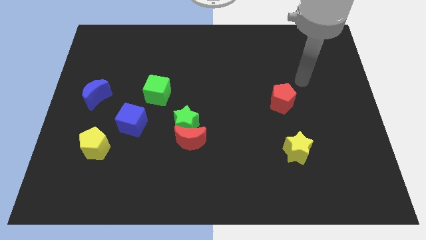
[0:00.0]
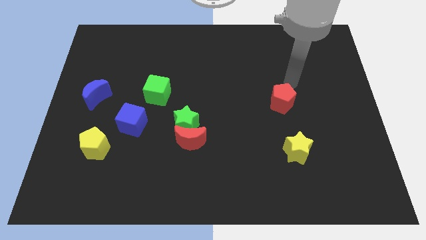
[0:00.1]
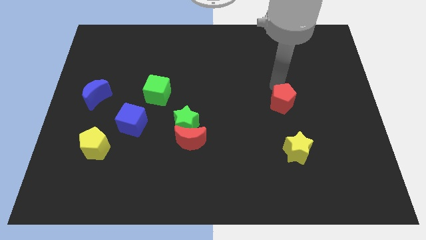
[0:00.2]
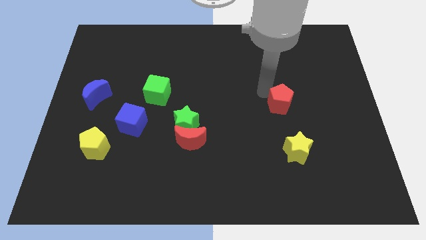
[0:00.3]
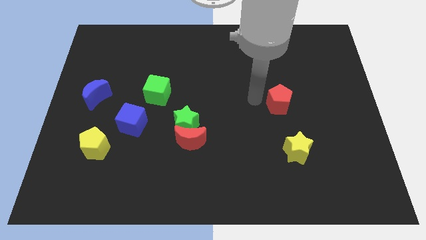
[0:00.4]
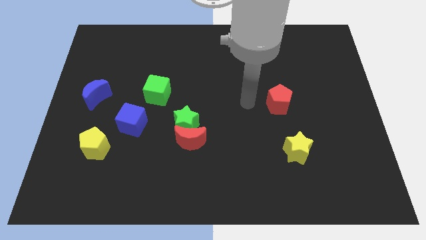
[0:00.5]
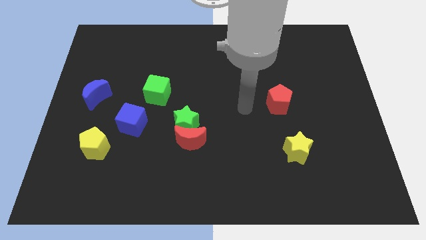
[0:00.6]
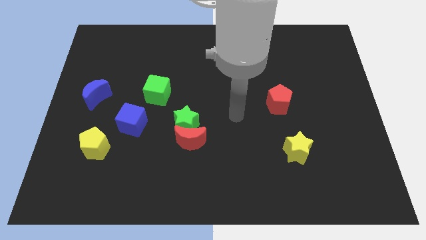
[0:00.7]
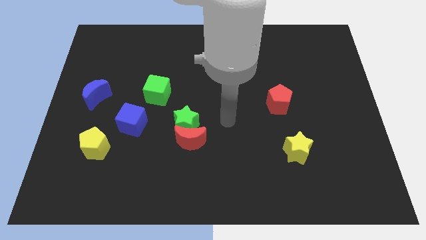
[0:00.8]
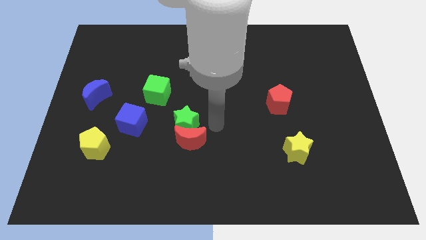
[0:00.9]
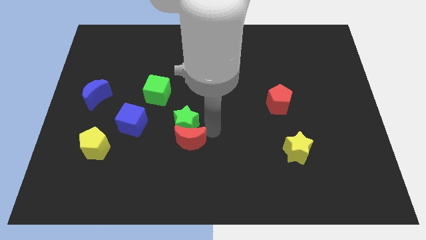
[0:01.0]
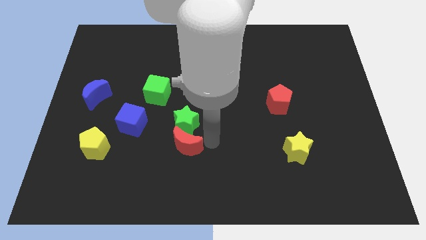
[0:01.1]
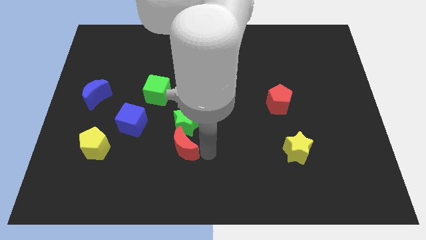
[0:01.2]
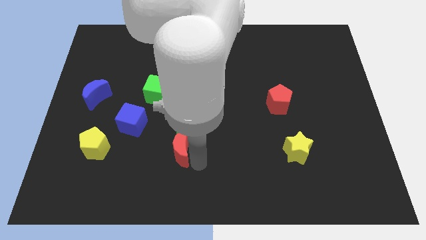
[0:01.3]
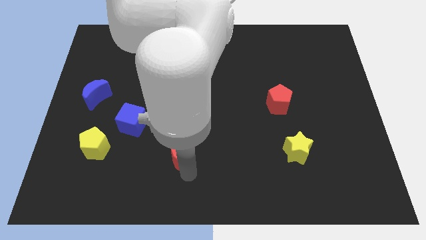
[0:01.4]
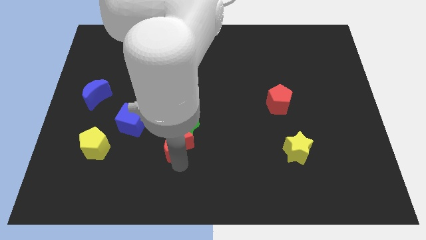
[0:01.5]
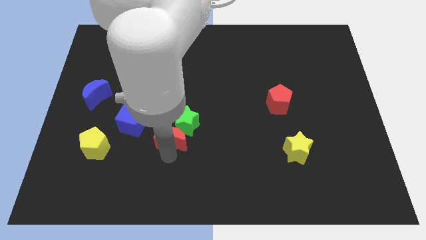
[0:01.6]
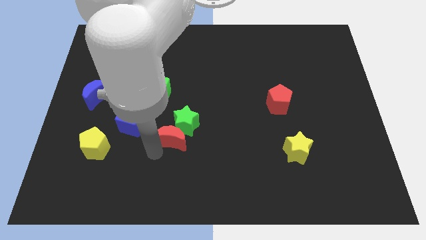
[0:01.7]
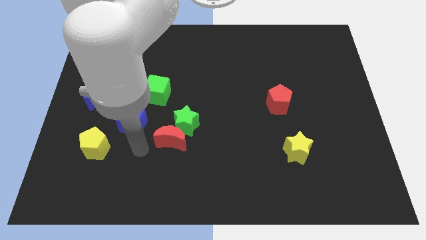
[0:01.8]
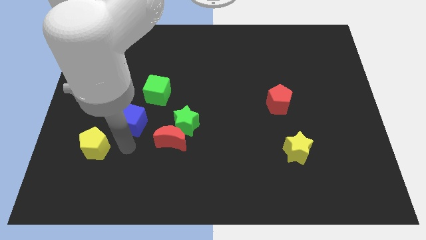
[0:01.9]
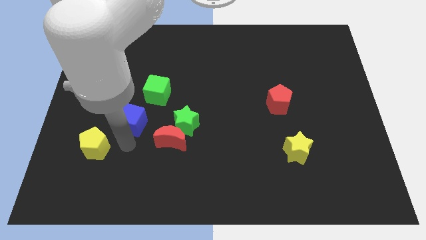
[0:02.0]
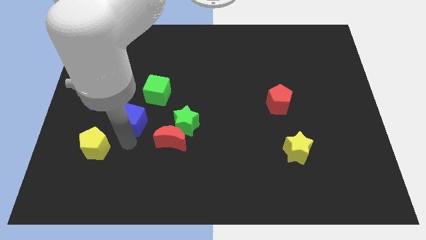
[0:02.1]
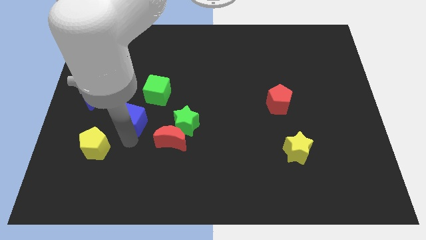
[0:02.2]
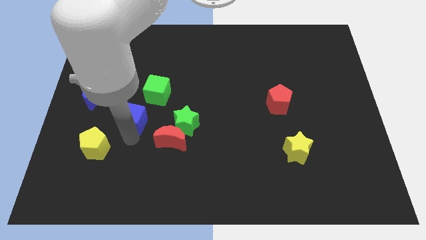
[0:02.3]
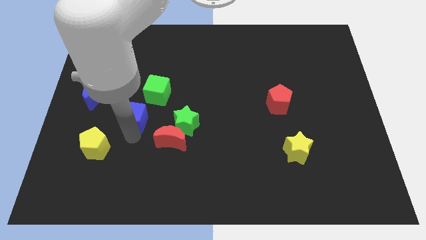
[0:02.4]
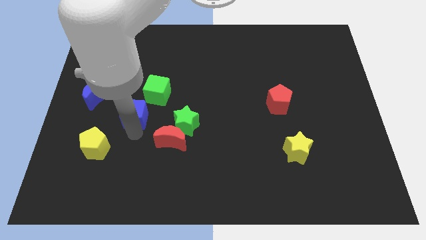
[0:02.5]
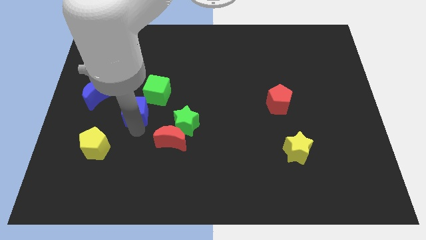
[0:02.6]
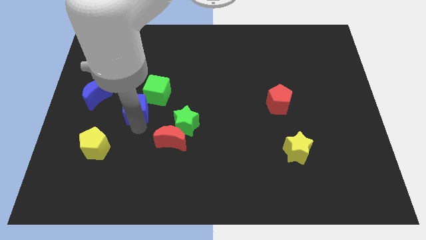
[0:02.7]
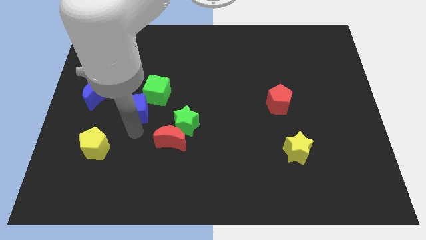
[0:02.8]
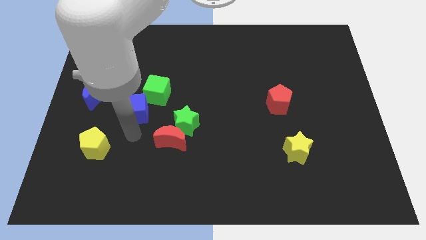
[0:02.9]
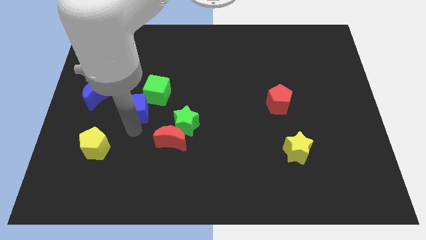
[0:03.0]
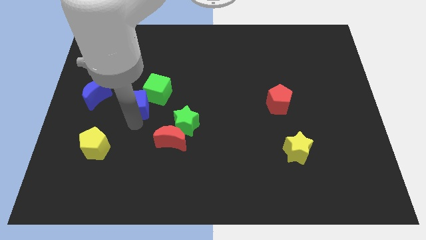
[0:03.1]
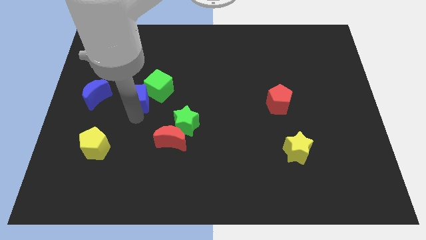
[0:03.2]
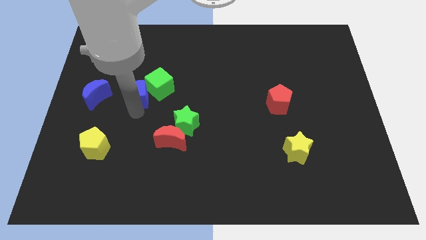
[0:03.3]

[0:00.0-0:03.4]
slide the blue cube up a little bit

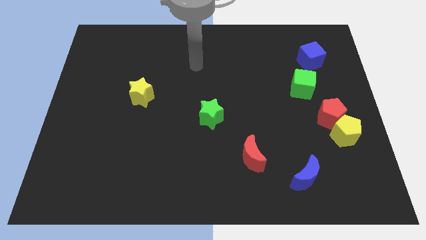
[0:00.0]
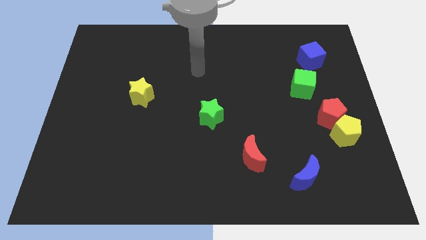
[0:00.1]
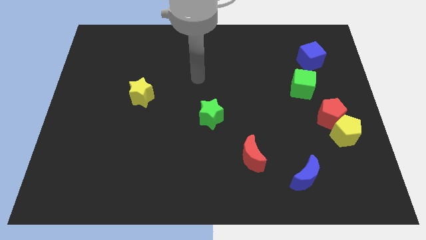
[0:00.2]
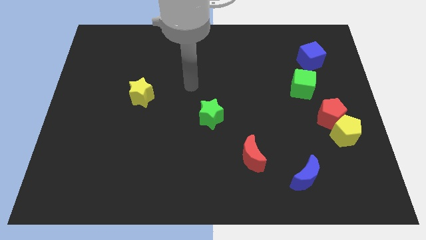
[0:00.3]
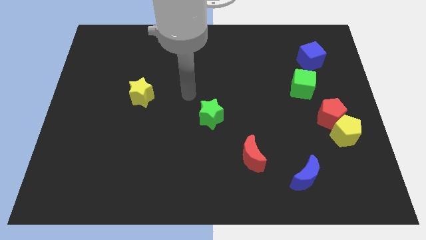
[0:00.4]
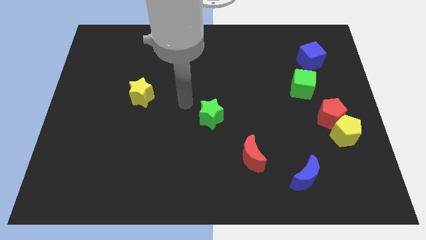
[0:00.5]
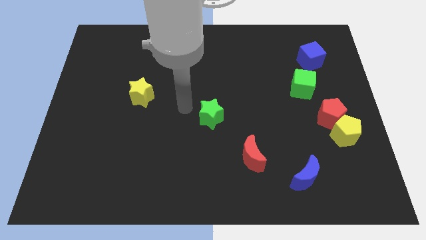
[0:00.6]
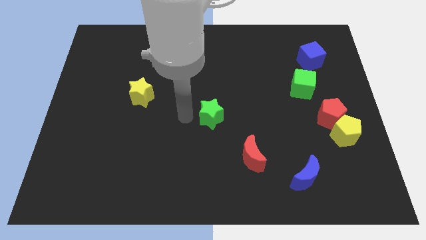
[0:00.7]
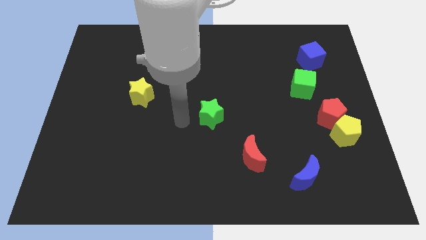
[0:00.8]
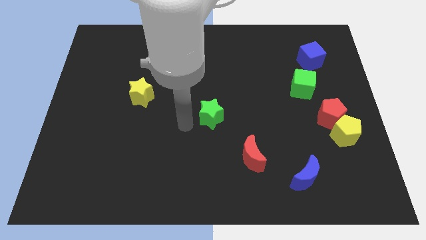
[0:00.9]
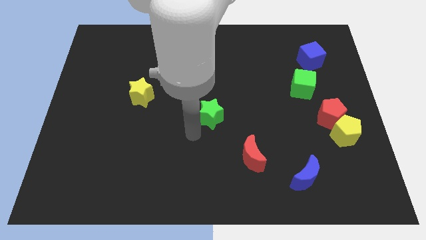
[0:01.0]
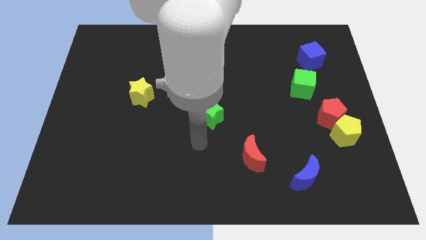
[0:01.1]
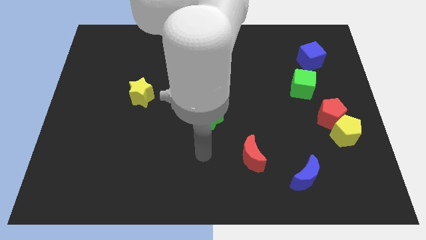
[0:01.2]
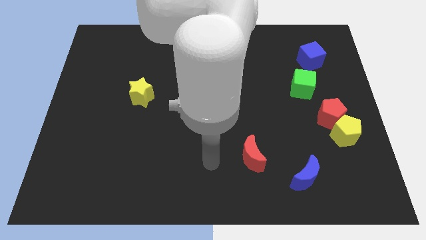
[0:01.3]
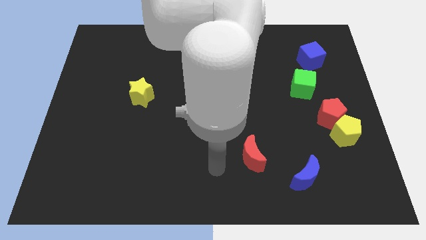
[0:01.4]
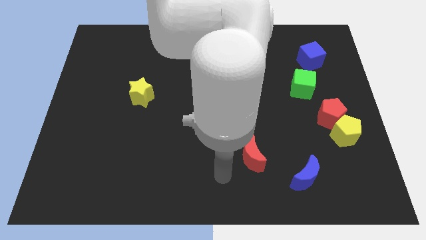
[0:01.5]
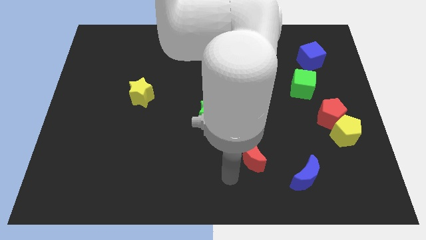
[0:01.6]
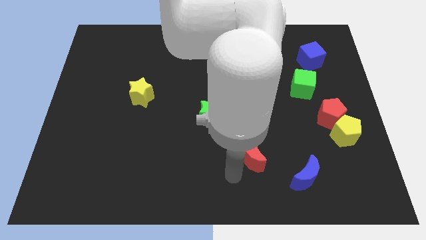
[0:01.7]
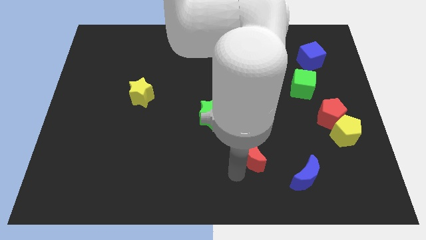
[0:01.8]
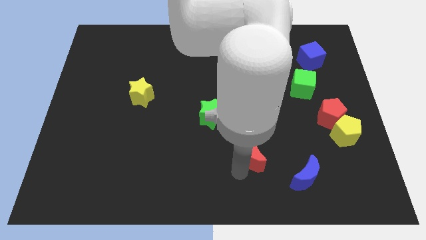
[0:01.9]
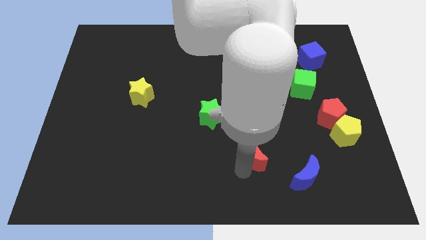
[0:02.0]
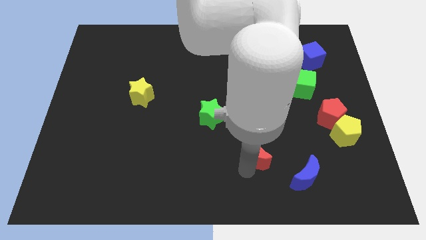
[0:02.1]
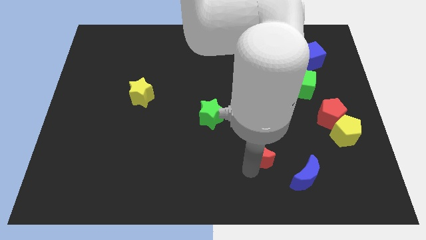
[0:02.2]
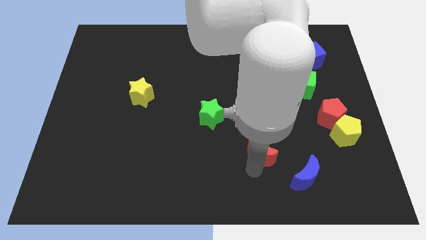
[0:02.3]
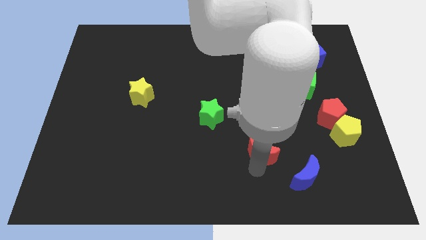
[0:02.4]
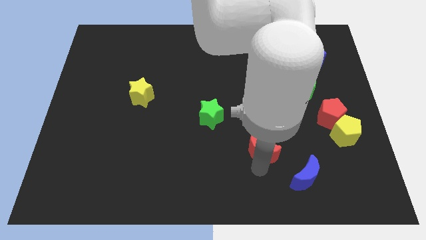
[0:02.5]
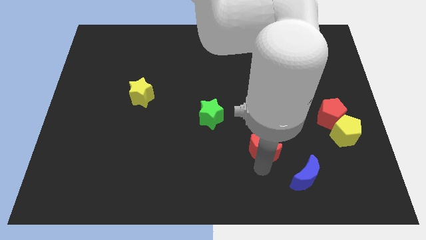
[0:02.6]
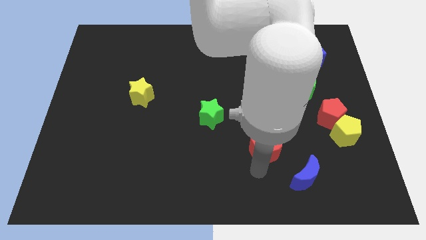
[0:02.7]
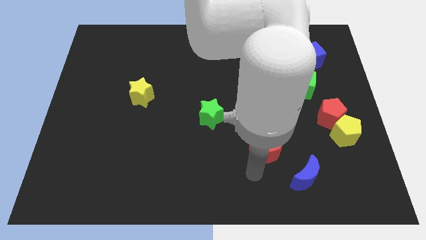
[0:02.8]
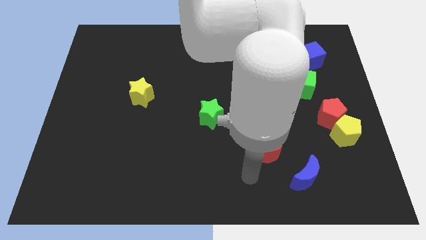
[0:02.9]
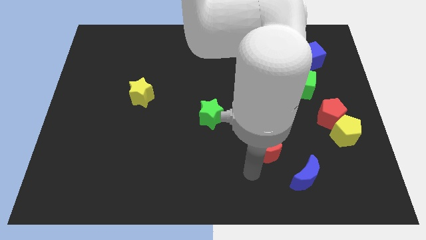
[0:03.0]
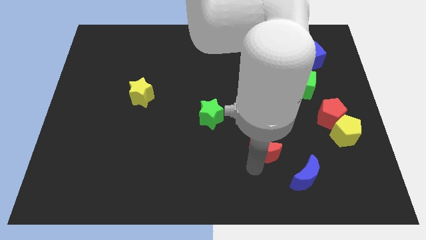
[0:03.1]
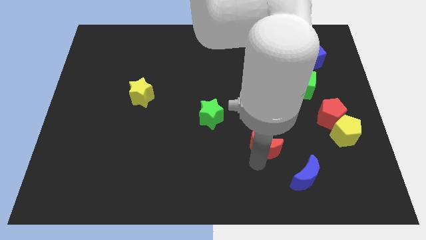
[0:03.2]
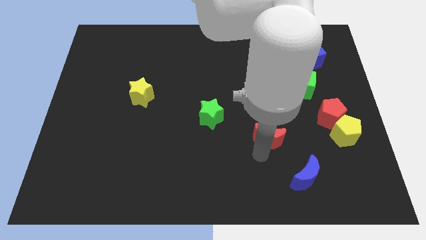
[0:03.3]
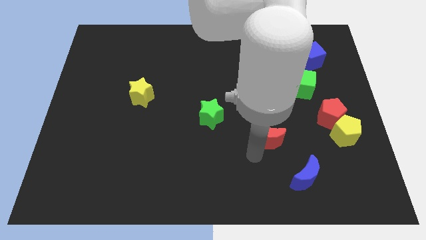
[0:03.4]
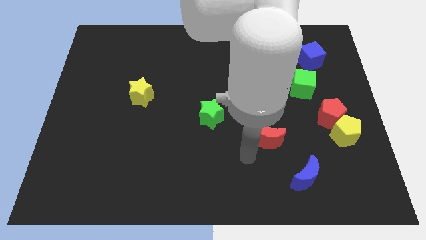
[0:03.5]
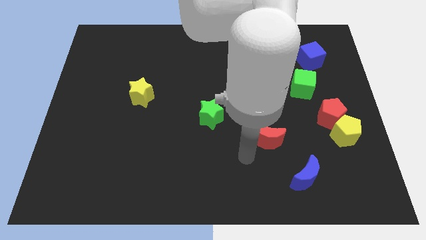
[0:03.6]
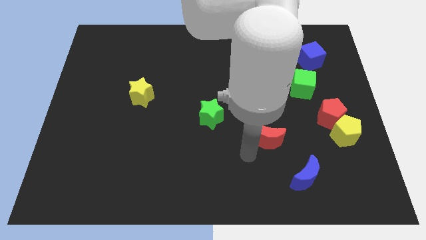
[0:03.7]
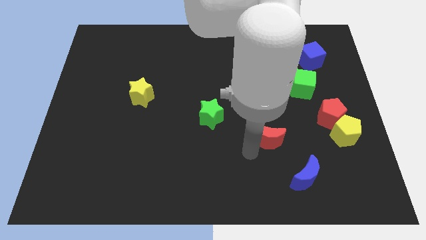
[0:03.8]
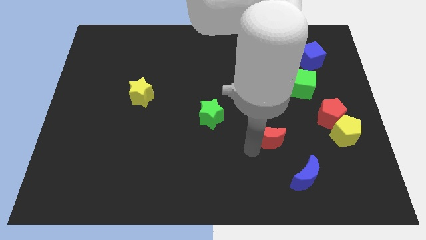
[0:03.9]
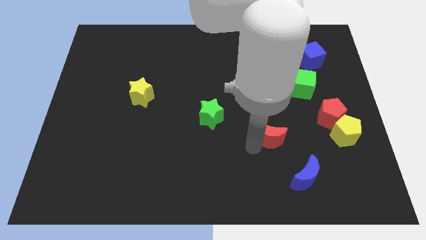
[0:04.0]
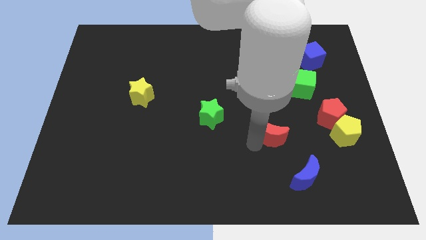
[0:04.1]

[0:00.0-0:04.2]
push the red moon a little bit up and then right

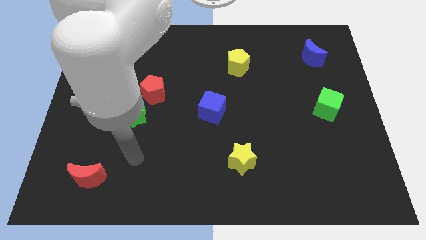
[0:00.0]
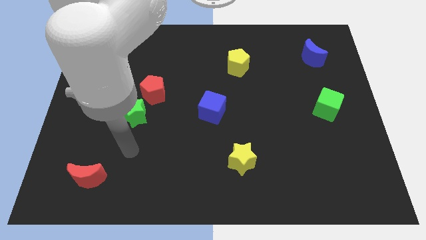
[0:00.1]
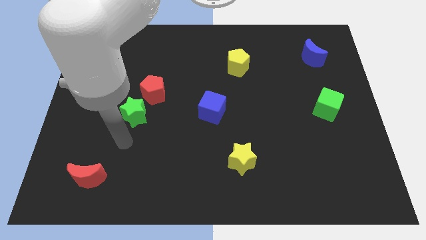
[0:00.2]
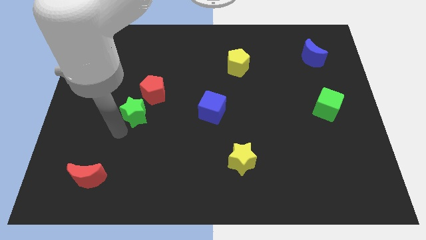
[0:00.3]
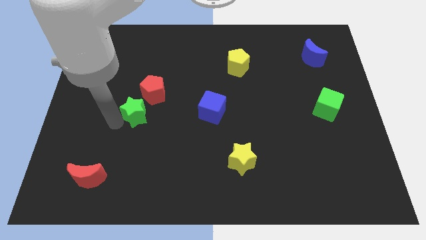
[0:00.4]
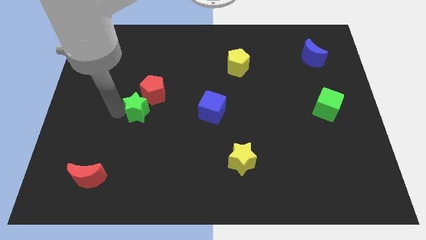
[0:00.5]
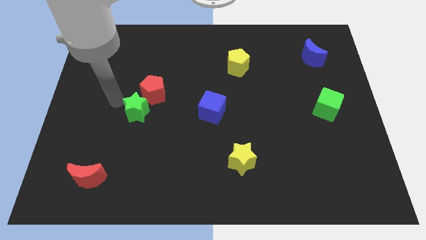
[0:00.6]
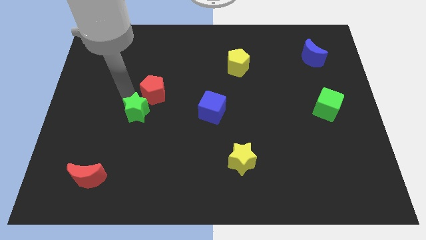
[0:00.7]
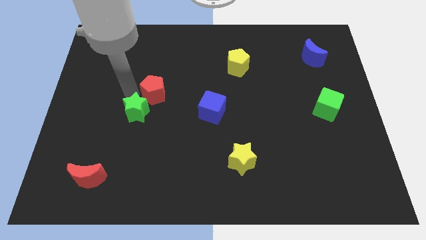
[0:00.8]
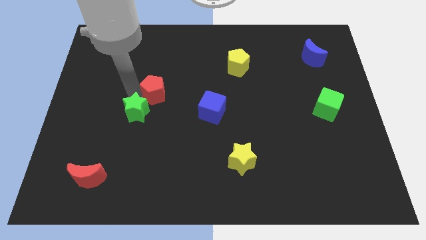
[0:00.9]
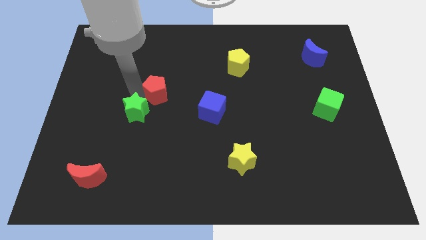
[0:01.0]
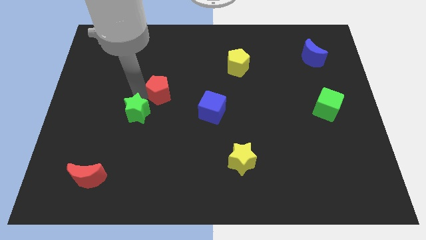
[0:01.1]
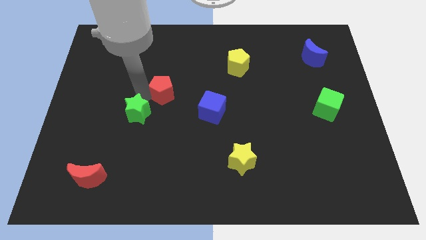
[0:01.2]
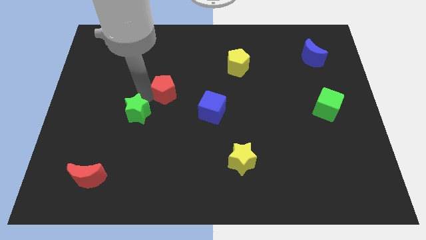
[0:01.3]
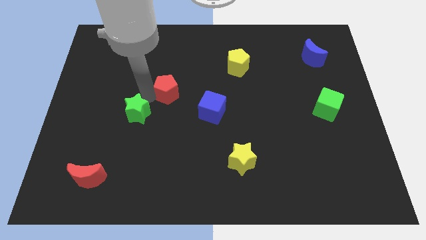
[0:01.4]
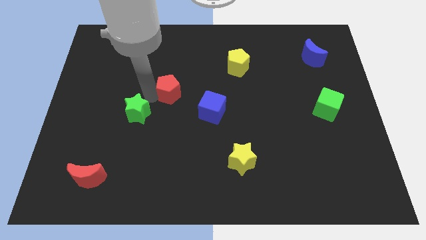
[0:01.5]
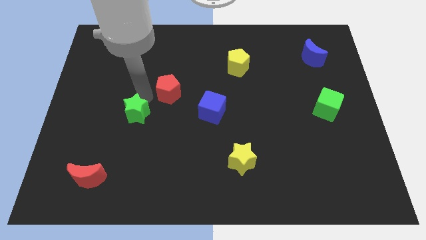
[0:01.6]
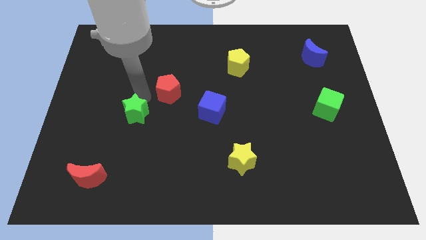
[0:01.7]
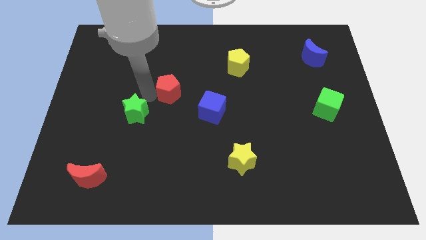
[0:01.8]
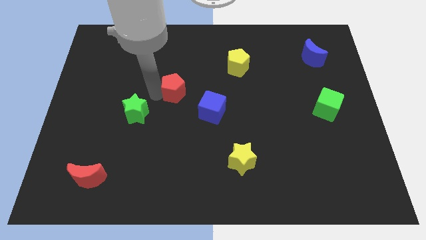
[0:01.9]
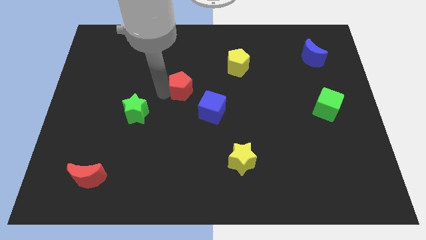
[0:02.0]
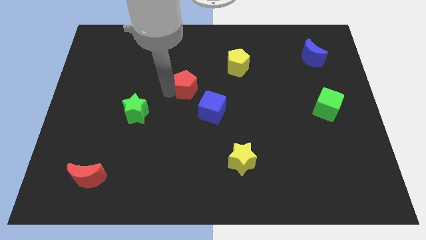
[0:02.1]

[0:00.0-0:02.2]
slightly slide the red pentagon to the right
